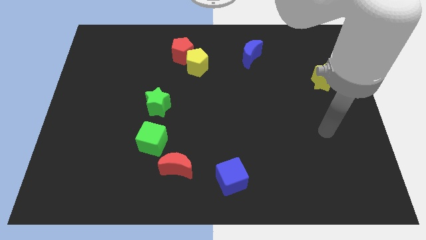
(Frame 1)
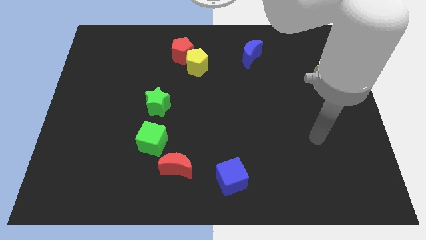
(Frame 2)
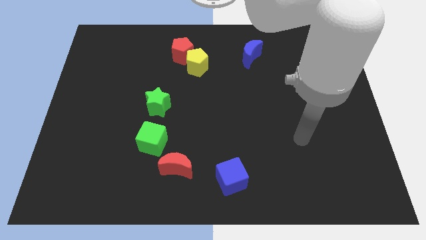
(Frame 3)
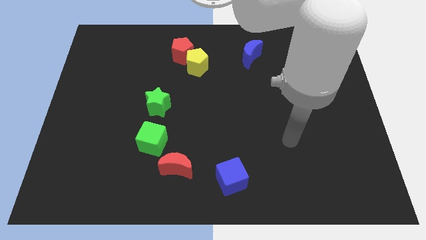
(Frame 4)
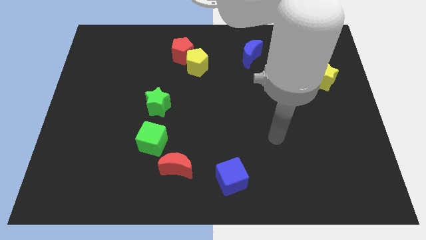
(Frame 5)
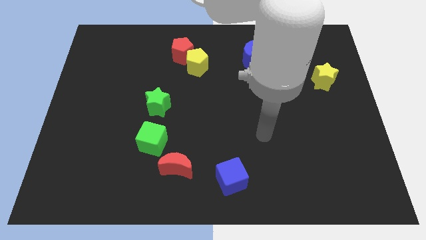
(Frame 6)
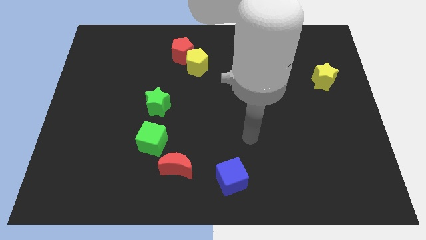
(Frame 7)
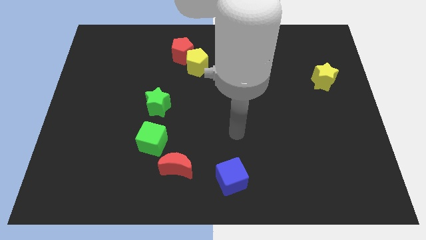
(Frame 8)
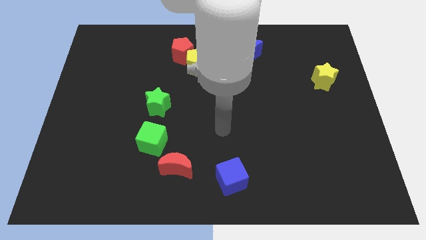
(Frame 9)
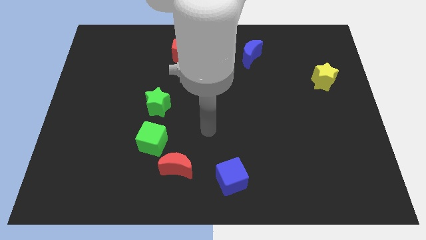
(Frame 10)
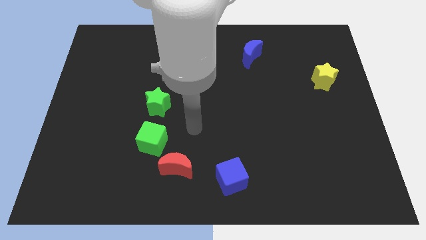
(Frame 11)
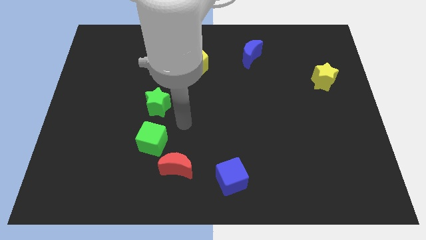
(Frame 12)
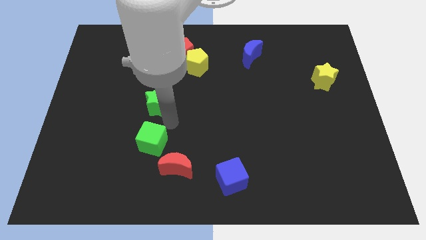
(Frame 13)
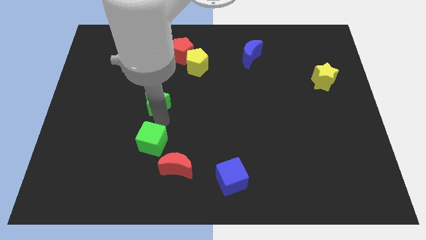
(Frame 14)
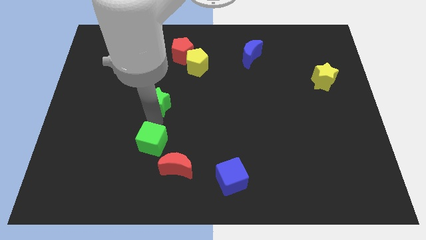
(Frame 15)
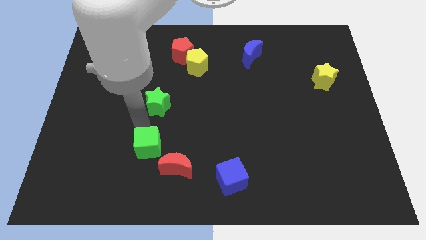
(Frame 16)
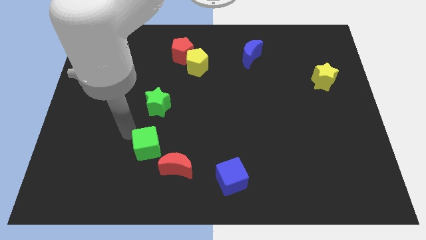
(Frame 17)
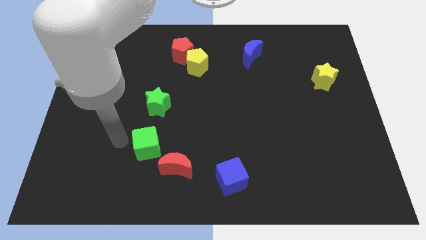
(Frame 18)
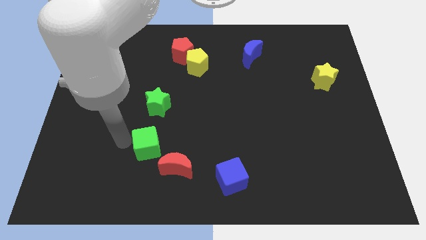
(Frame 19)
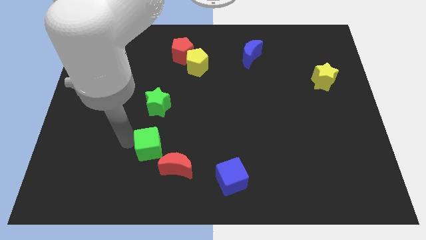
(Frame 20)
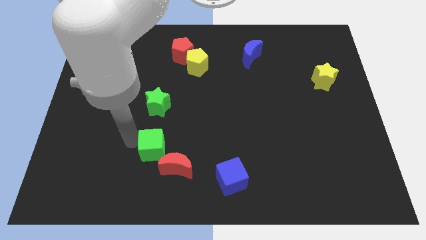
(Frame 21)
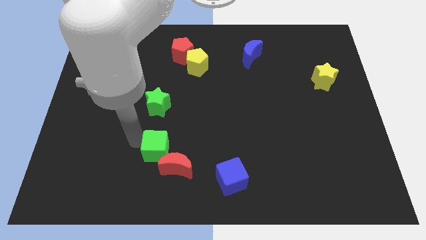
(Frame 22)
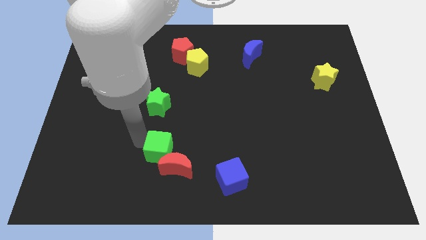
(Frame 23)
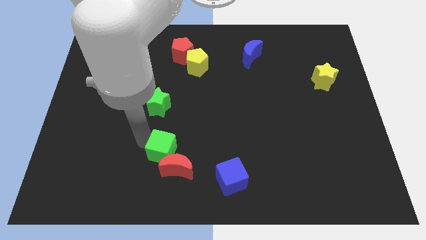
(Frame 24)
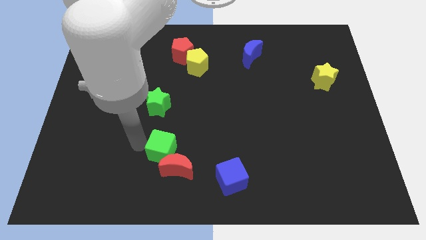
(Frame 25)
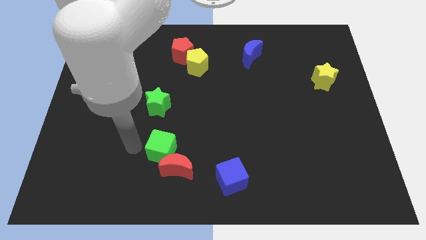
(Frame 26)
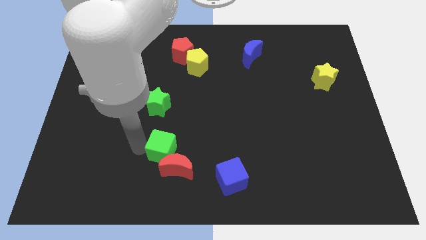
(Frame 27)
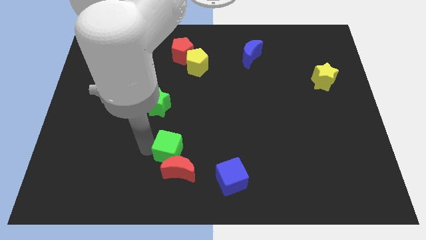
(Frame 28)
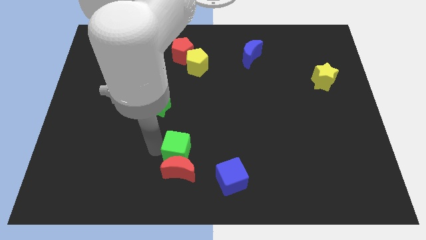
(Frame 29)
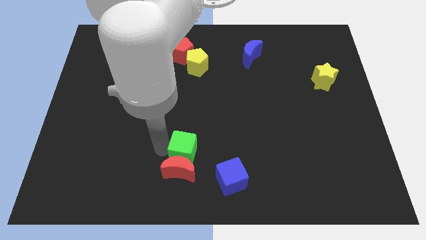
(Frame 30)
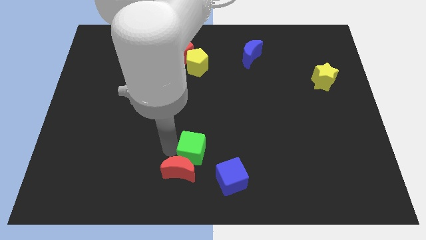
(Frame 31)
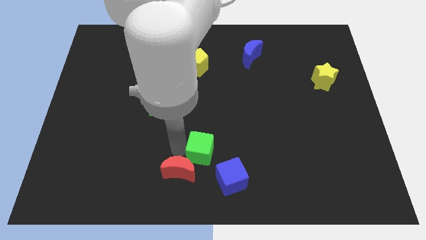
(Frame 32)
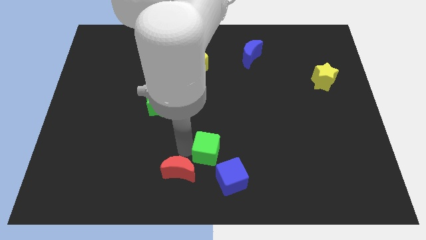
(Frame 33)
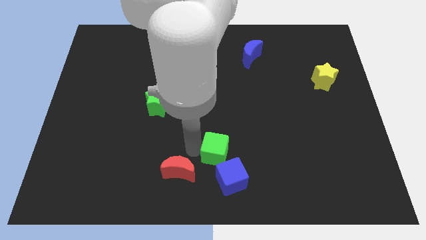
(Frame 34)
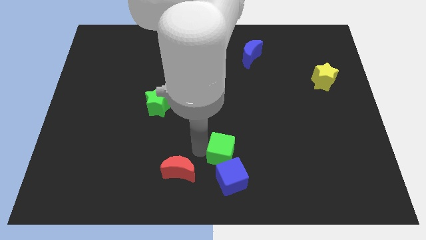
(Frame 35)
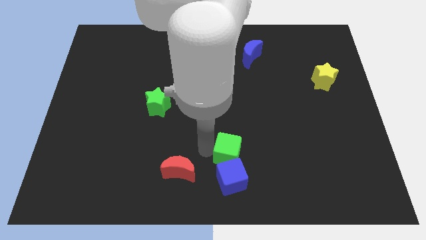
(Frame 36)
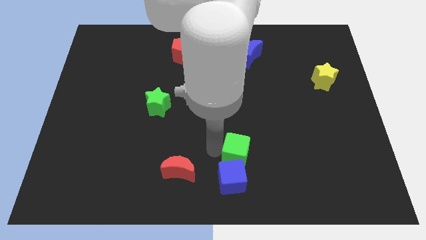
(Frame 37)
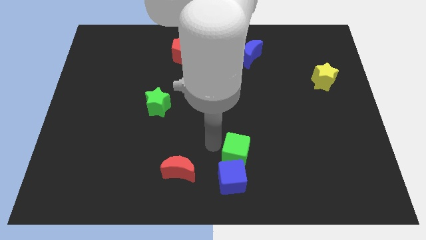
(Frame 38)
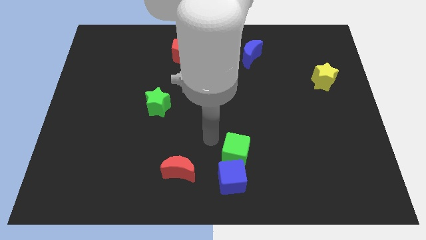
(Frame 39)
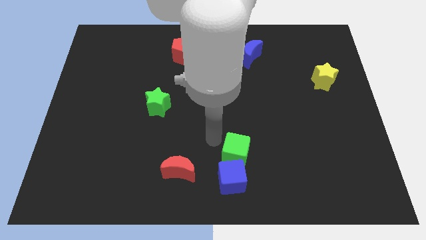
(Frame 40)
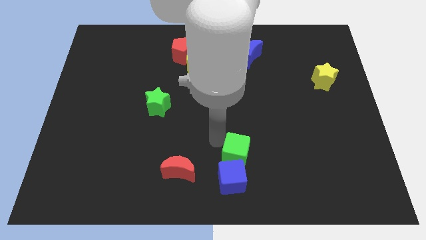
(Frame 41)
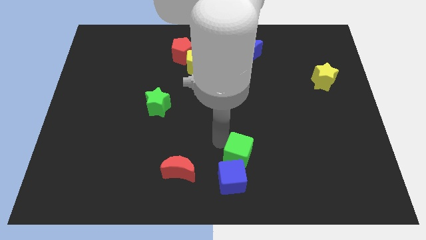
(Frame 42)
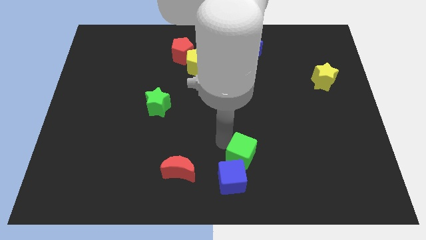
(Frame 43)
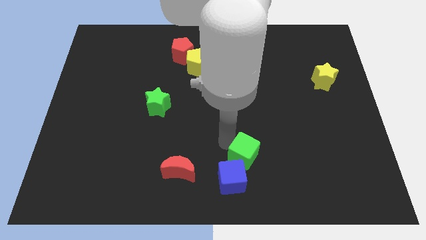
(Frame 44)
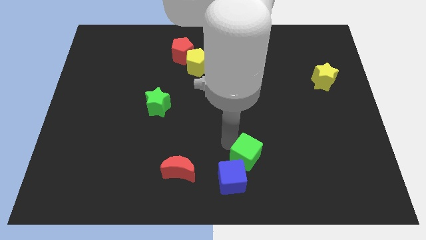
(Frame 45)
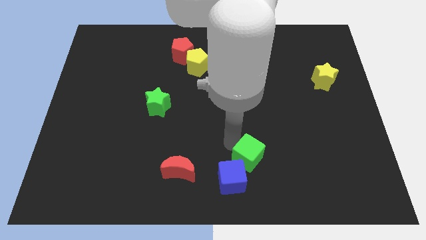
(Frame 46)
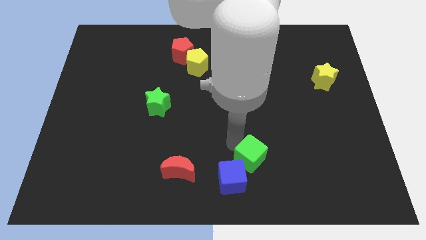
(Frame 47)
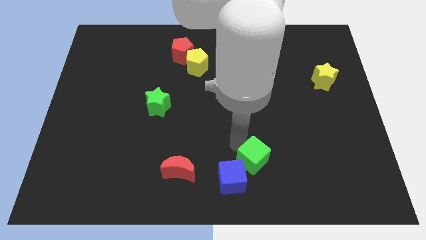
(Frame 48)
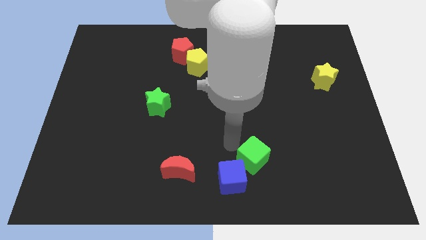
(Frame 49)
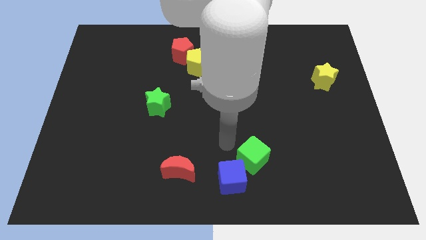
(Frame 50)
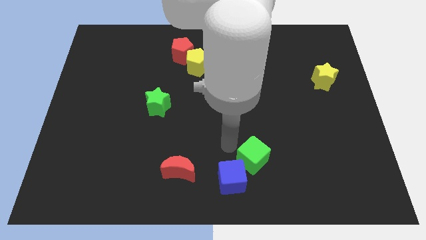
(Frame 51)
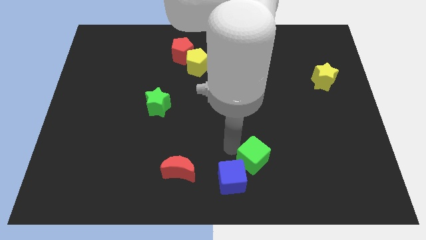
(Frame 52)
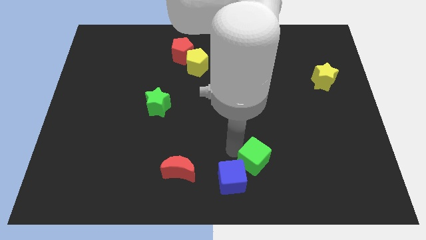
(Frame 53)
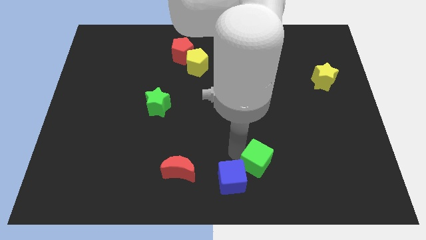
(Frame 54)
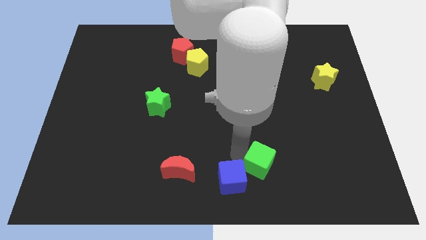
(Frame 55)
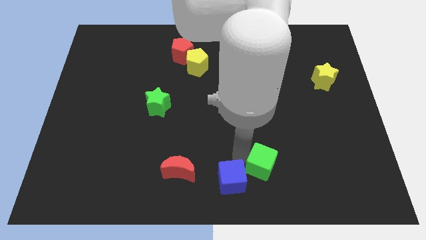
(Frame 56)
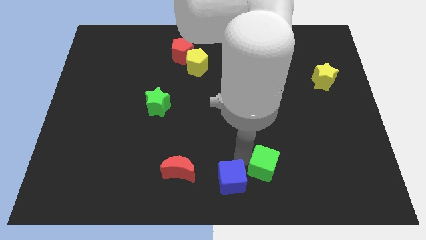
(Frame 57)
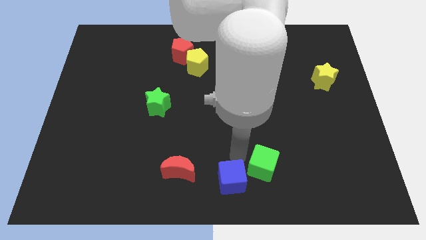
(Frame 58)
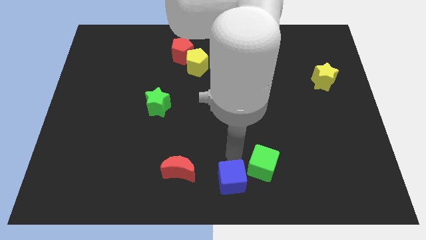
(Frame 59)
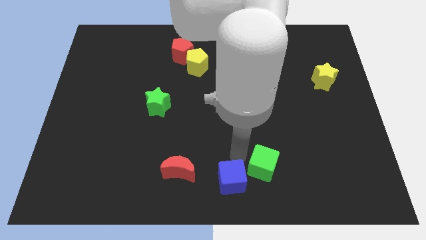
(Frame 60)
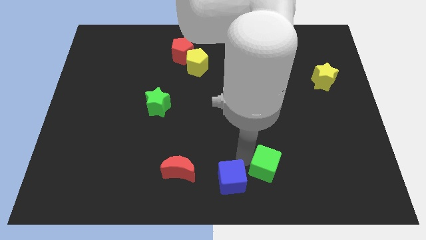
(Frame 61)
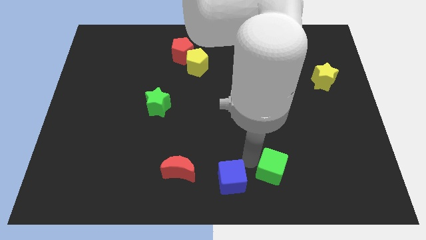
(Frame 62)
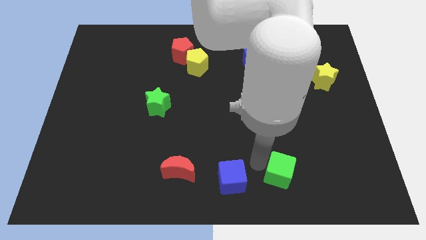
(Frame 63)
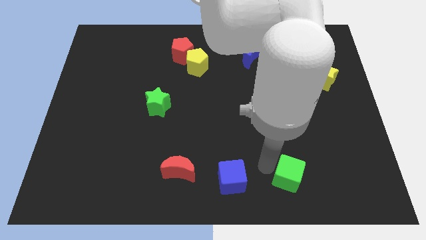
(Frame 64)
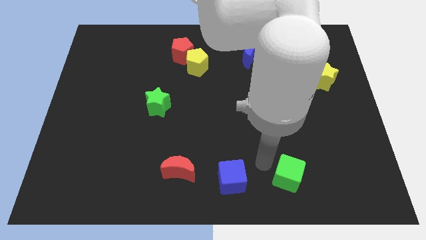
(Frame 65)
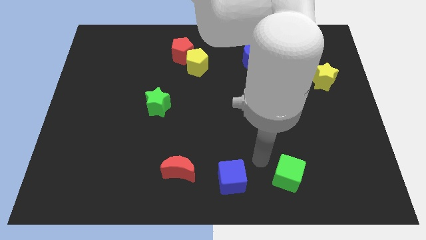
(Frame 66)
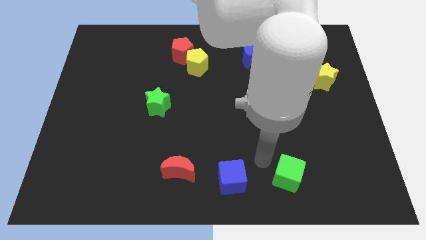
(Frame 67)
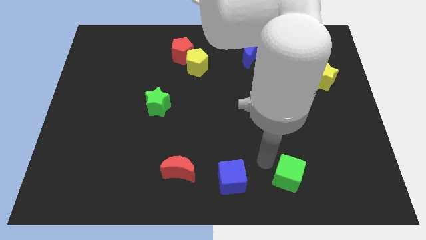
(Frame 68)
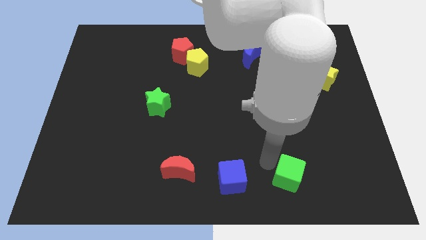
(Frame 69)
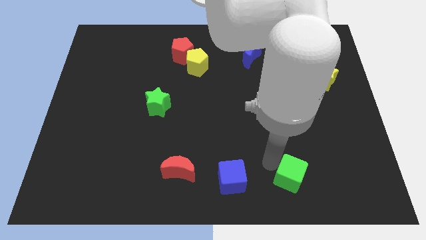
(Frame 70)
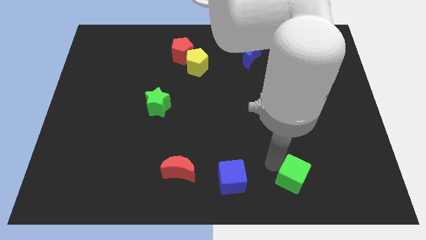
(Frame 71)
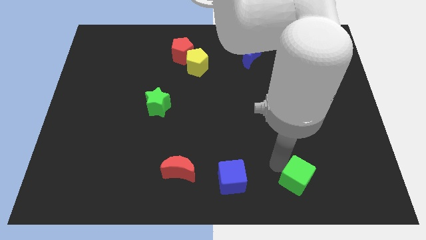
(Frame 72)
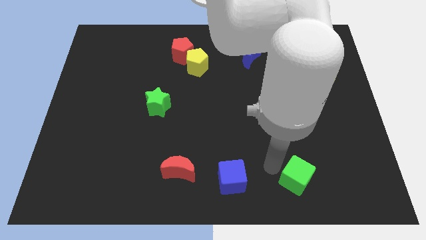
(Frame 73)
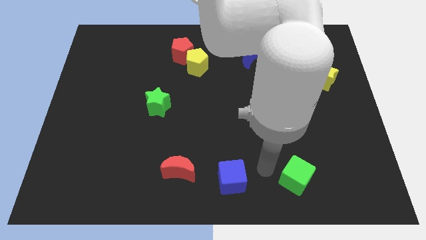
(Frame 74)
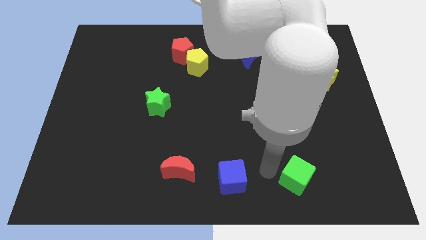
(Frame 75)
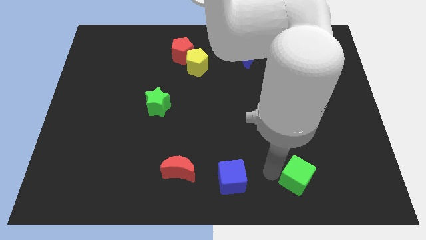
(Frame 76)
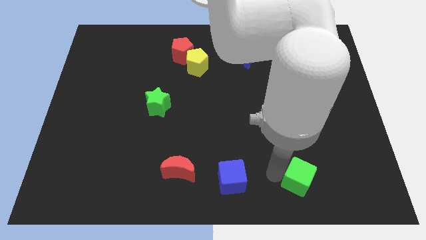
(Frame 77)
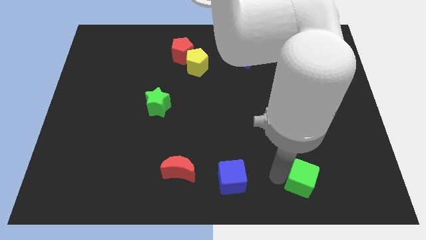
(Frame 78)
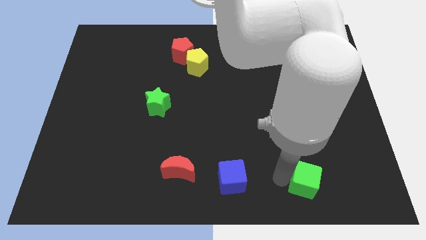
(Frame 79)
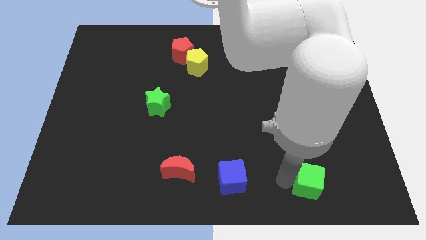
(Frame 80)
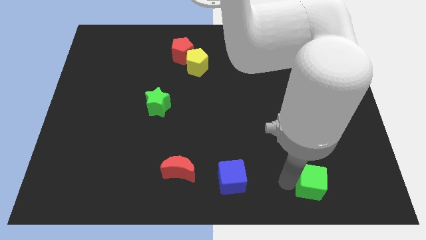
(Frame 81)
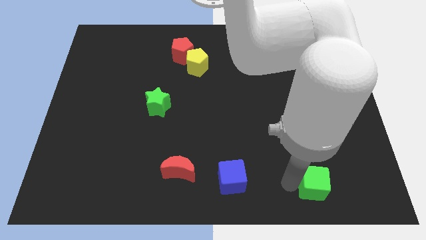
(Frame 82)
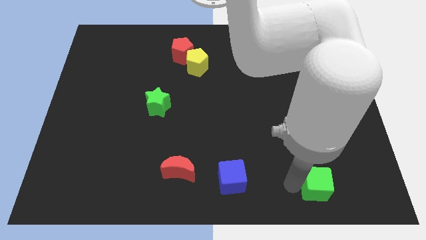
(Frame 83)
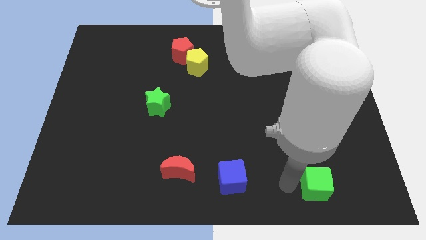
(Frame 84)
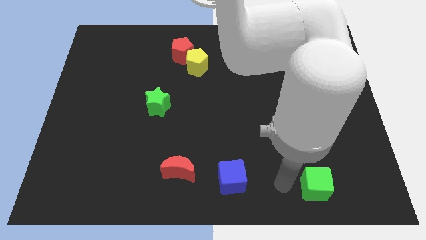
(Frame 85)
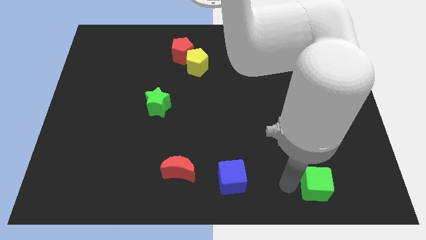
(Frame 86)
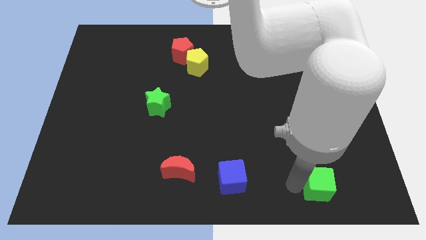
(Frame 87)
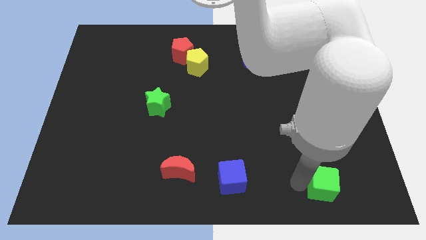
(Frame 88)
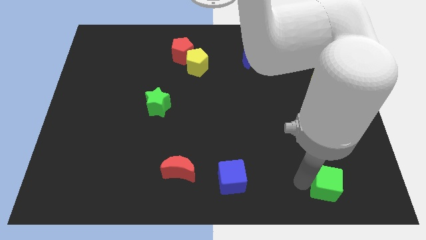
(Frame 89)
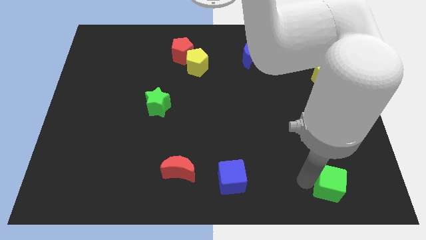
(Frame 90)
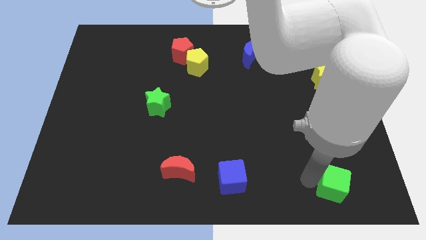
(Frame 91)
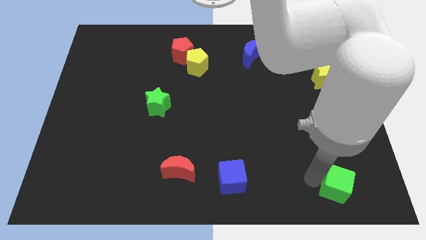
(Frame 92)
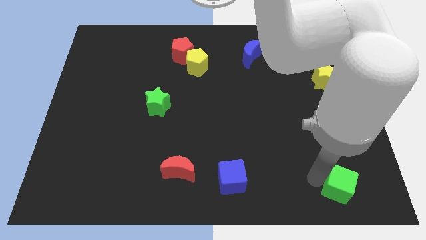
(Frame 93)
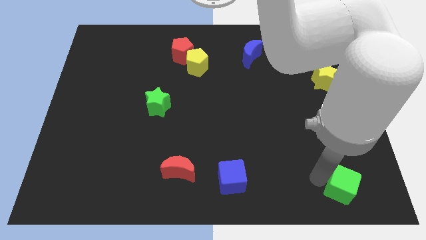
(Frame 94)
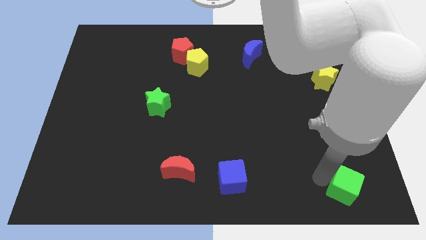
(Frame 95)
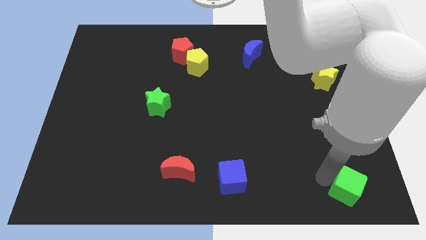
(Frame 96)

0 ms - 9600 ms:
slide the green cube to the bottom right of the board
